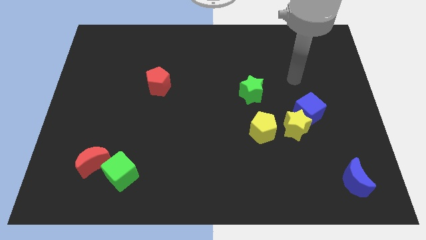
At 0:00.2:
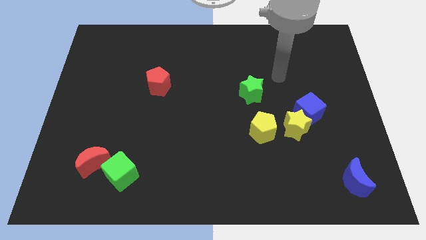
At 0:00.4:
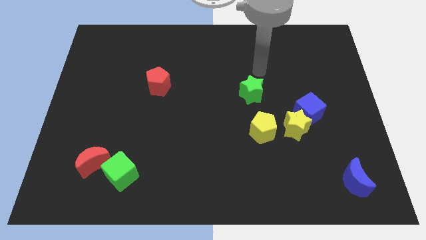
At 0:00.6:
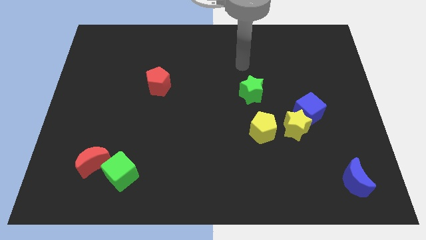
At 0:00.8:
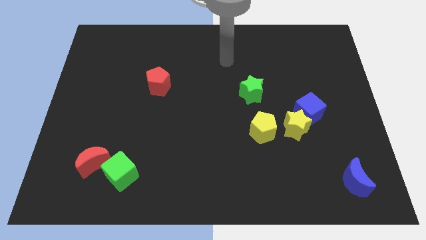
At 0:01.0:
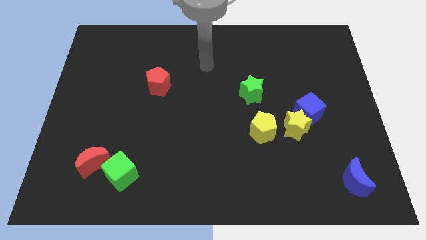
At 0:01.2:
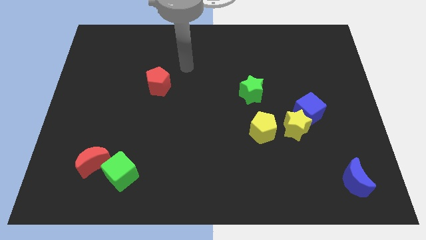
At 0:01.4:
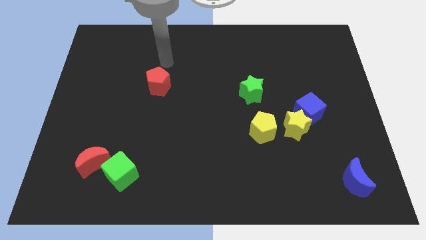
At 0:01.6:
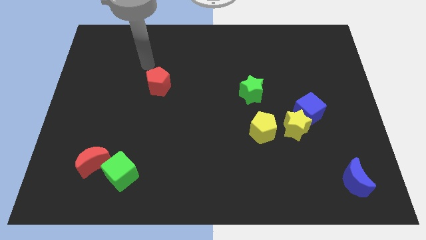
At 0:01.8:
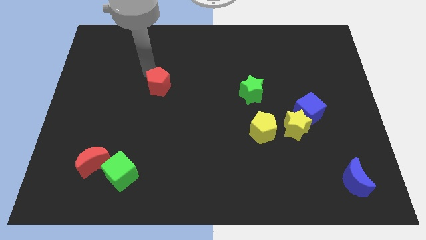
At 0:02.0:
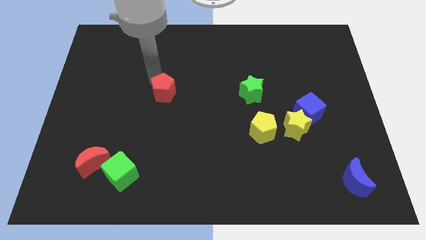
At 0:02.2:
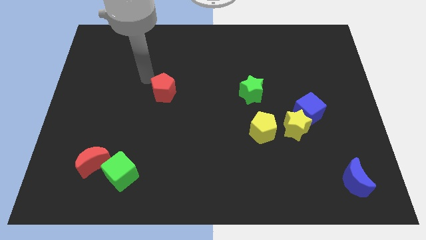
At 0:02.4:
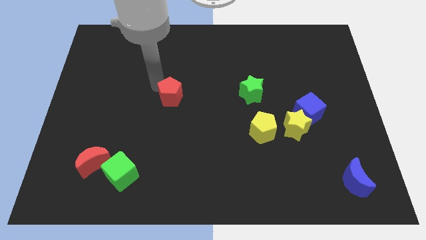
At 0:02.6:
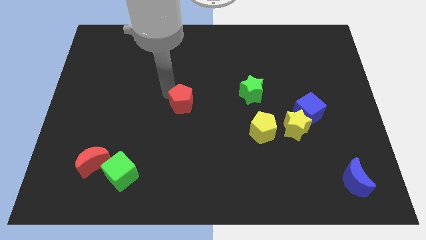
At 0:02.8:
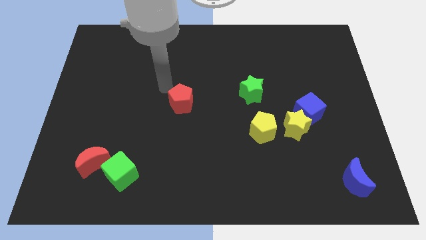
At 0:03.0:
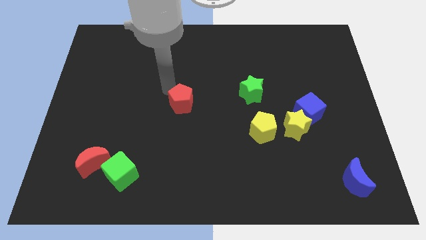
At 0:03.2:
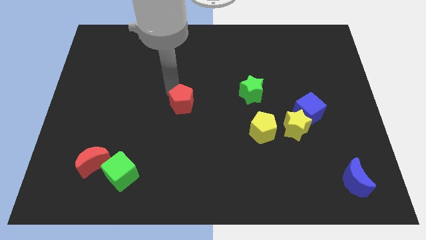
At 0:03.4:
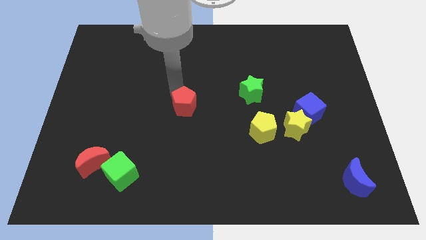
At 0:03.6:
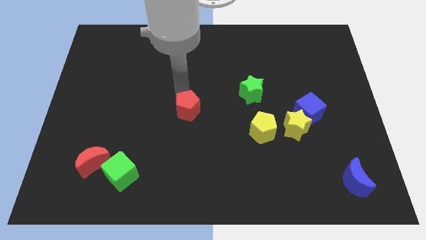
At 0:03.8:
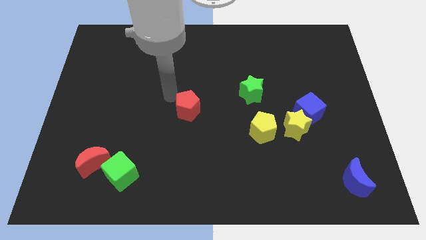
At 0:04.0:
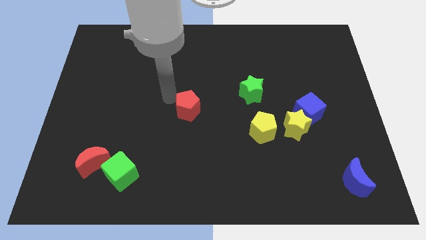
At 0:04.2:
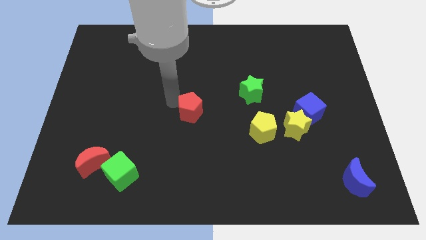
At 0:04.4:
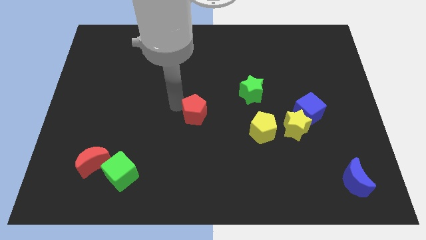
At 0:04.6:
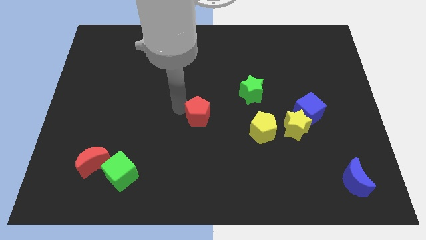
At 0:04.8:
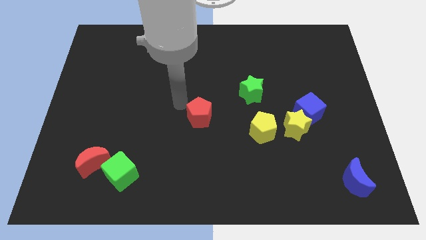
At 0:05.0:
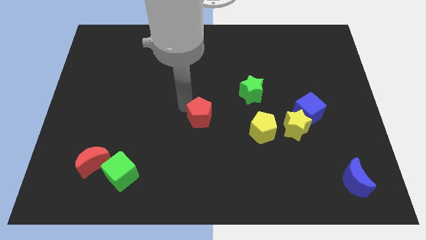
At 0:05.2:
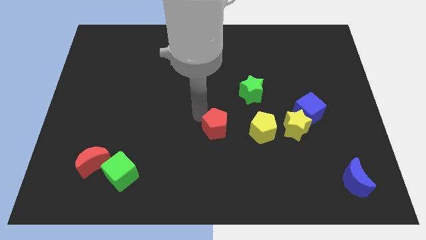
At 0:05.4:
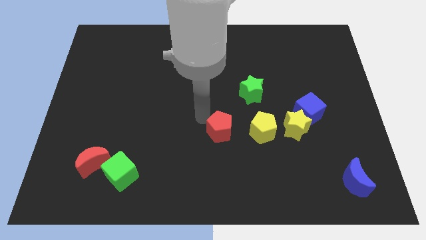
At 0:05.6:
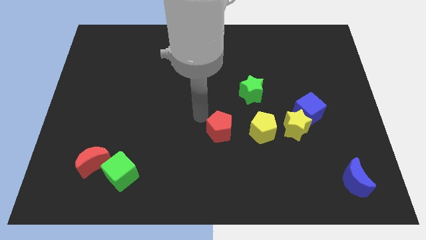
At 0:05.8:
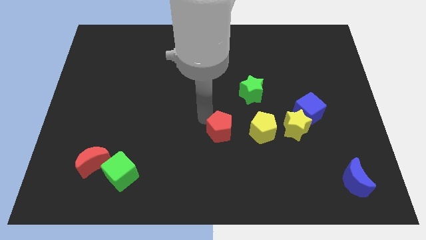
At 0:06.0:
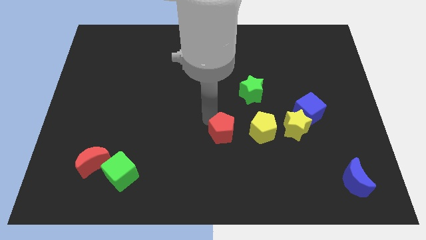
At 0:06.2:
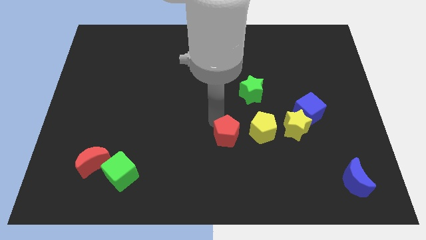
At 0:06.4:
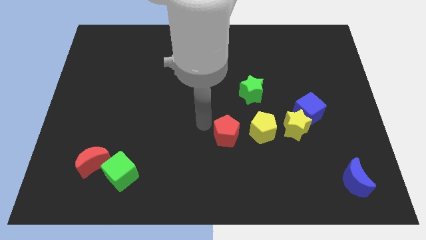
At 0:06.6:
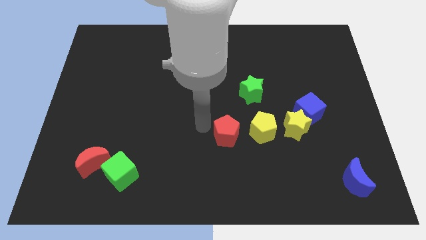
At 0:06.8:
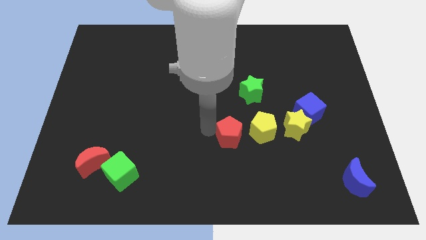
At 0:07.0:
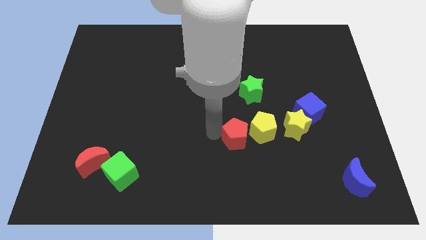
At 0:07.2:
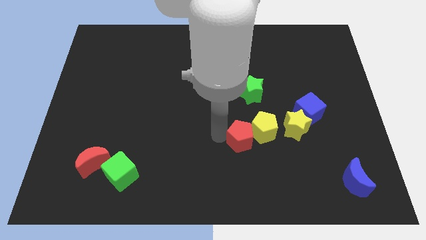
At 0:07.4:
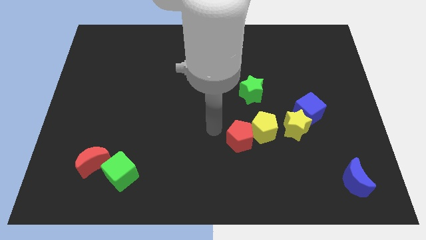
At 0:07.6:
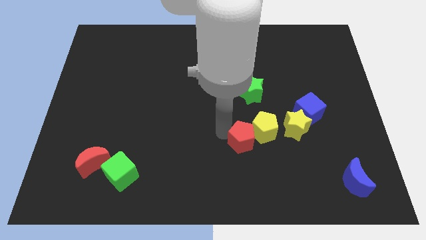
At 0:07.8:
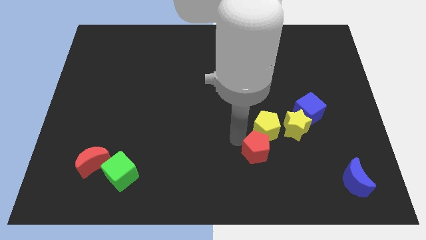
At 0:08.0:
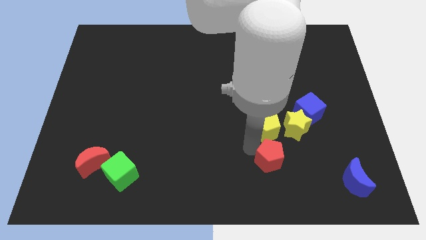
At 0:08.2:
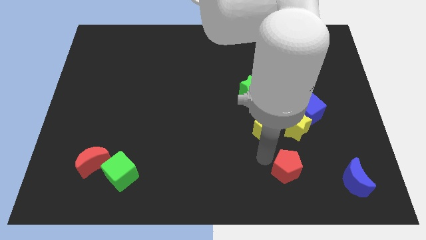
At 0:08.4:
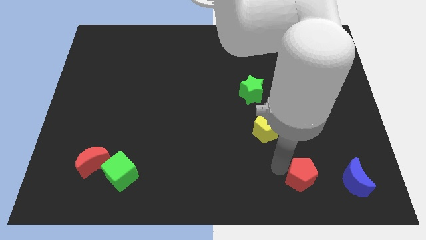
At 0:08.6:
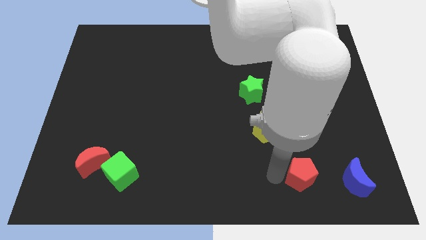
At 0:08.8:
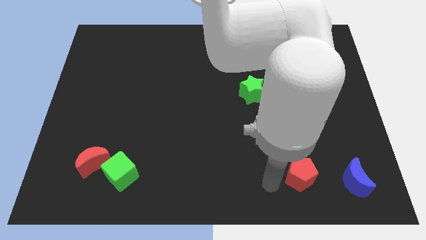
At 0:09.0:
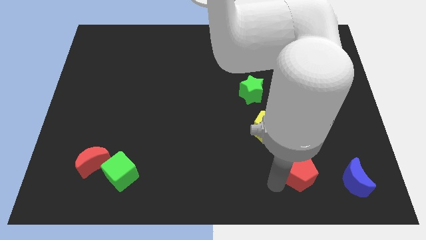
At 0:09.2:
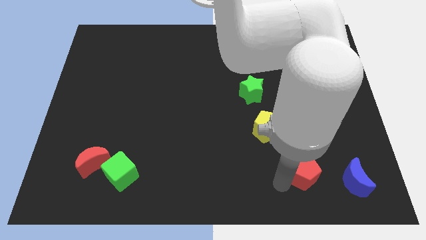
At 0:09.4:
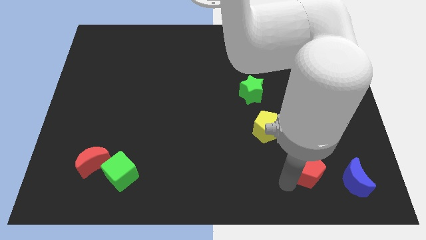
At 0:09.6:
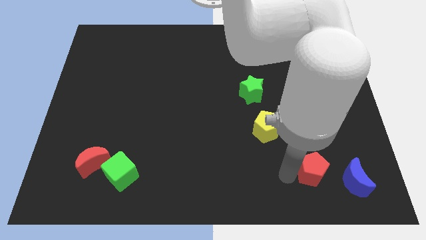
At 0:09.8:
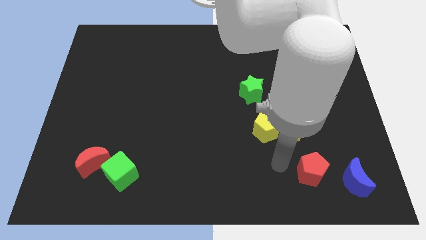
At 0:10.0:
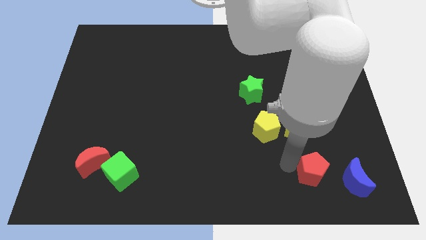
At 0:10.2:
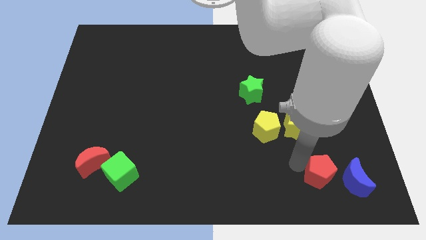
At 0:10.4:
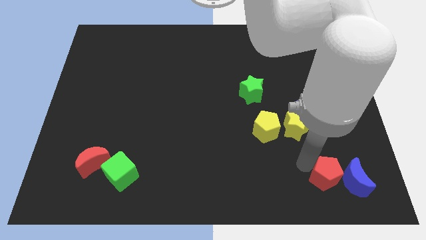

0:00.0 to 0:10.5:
push the red pentagon next to the blue moon

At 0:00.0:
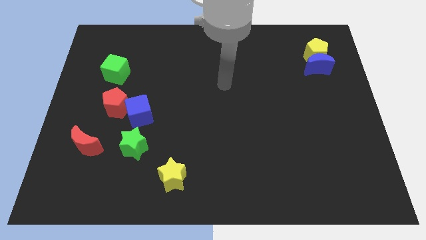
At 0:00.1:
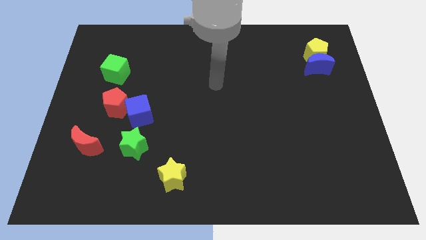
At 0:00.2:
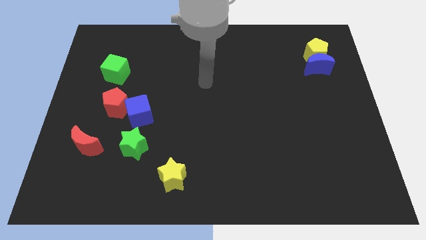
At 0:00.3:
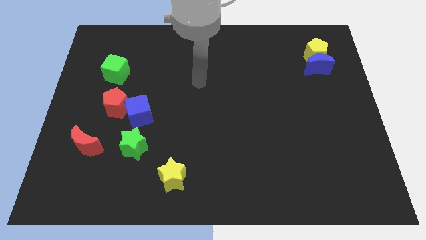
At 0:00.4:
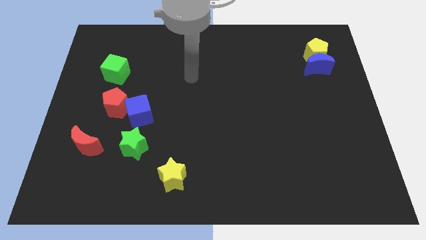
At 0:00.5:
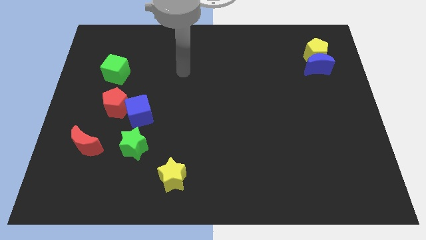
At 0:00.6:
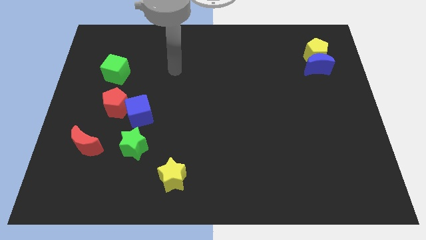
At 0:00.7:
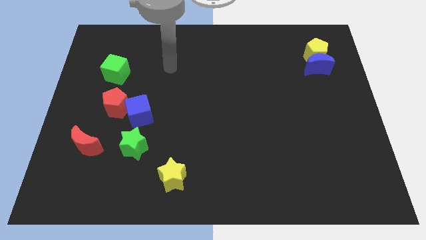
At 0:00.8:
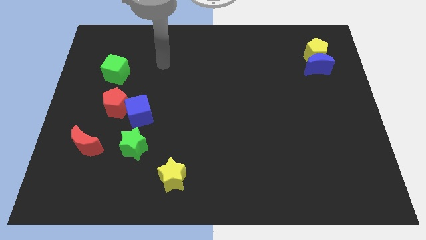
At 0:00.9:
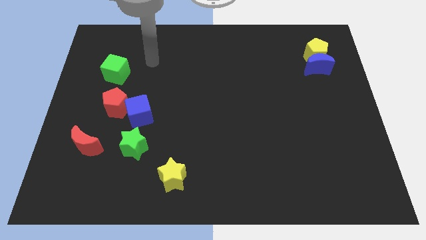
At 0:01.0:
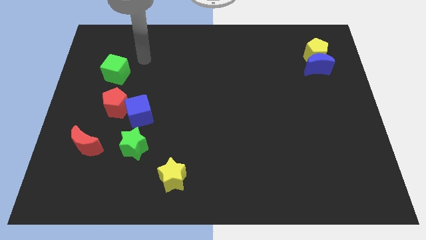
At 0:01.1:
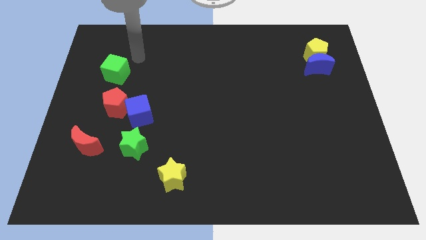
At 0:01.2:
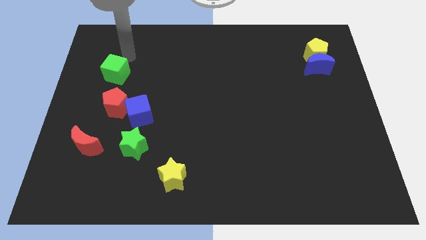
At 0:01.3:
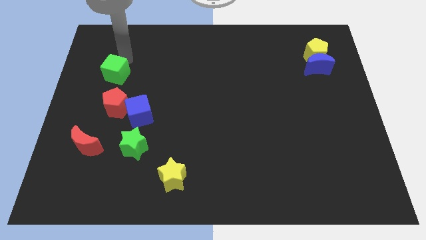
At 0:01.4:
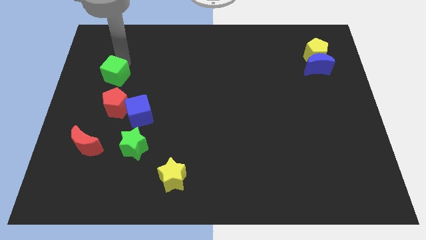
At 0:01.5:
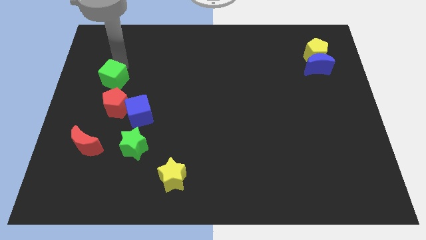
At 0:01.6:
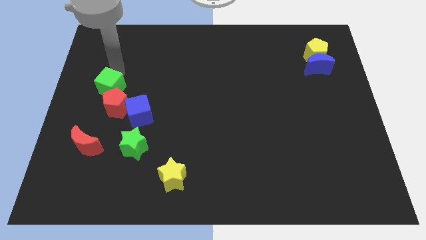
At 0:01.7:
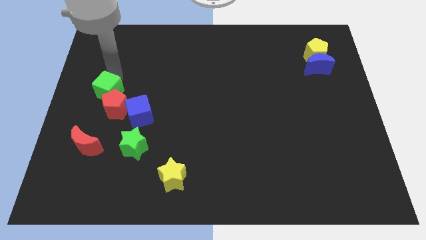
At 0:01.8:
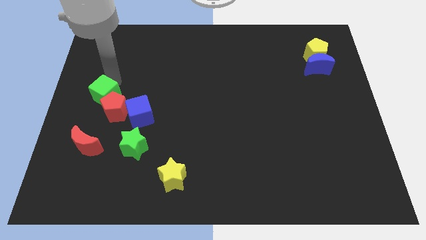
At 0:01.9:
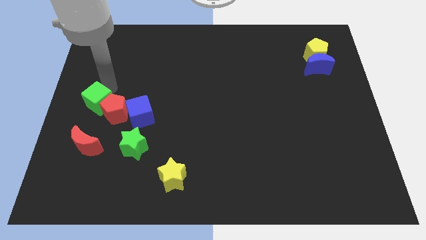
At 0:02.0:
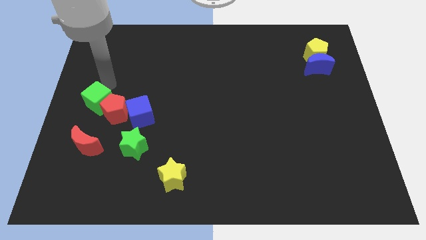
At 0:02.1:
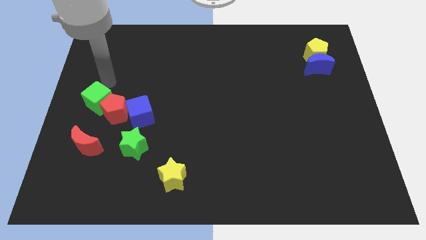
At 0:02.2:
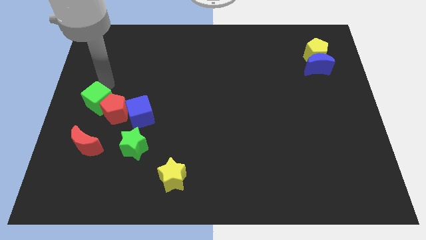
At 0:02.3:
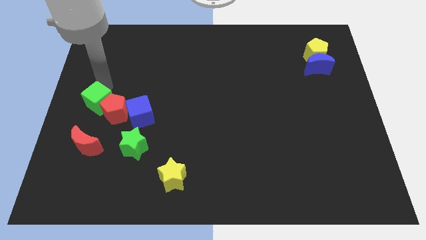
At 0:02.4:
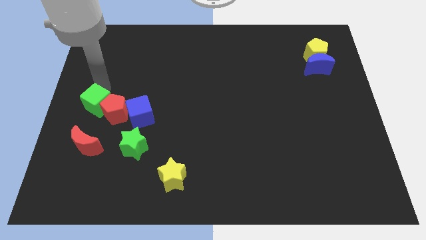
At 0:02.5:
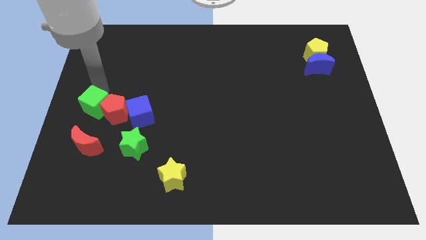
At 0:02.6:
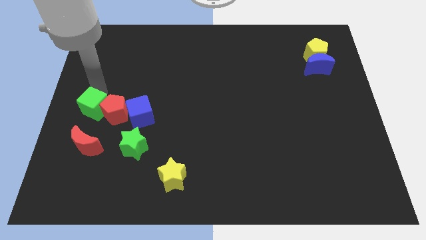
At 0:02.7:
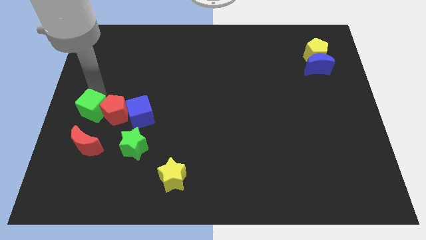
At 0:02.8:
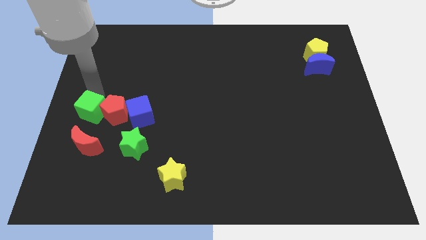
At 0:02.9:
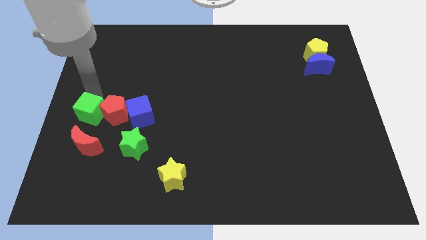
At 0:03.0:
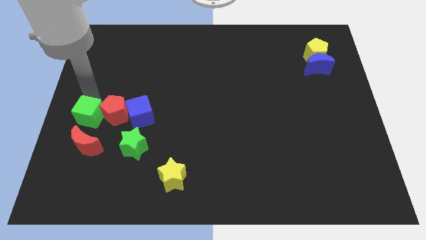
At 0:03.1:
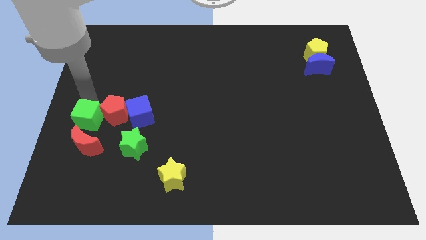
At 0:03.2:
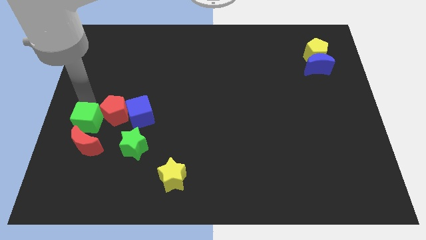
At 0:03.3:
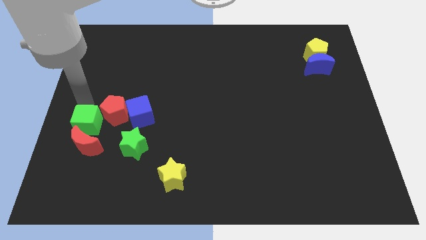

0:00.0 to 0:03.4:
put the green cube close to the red moon
